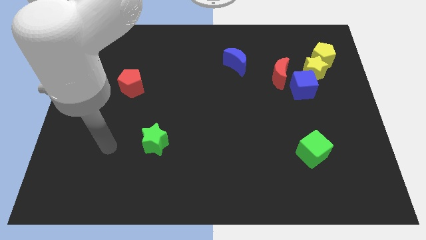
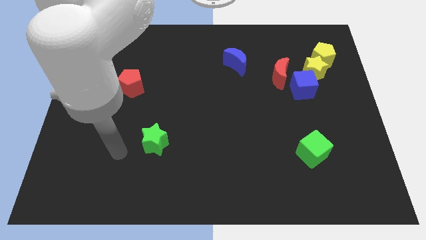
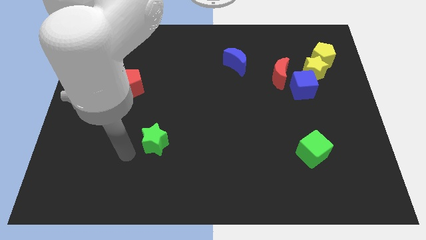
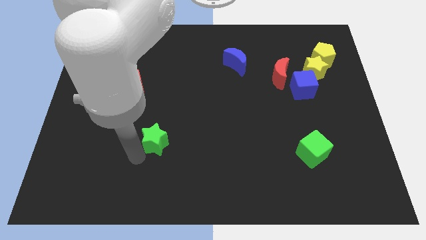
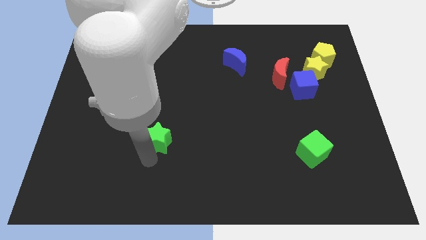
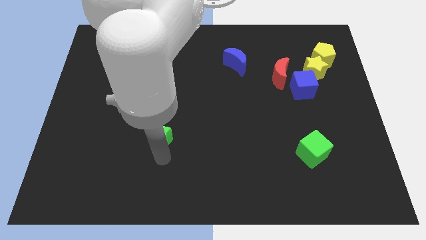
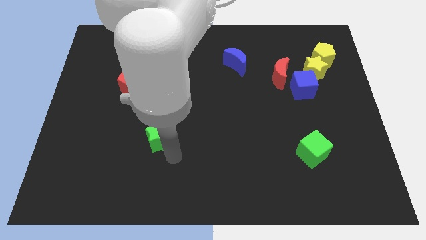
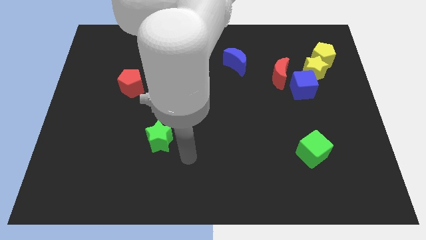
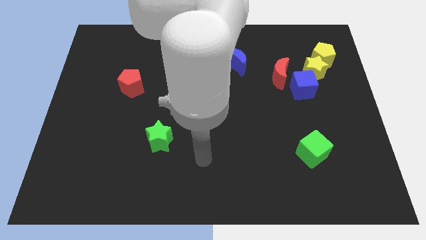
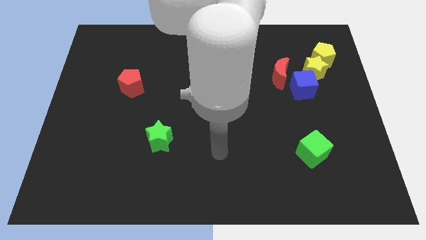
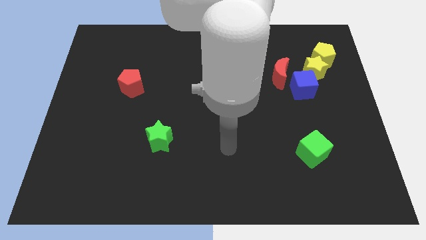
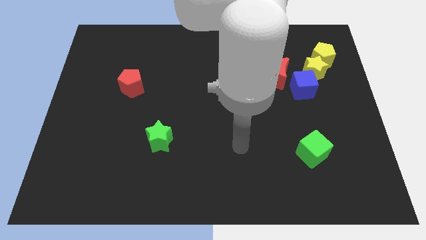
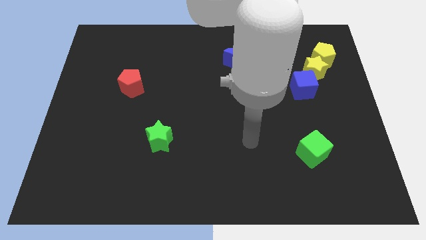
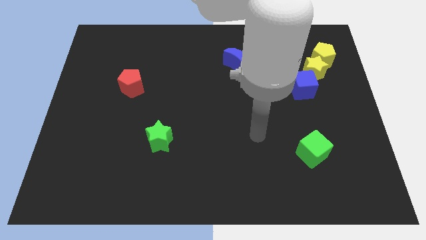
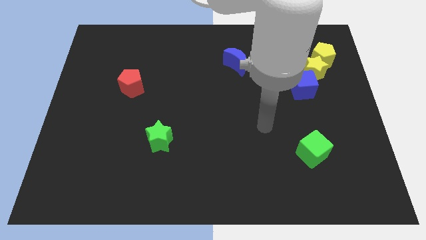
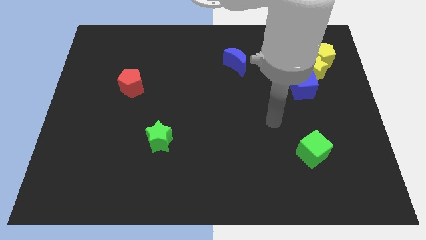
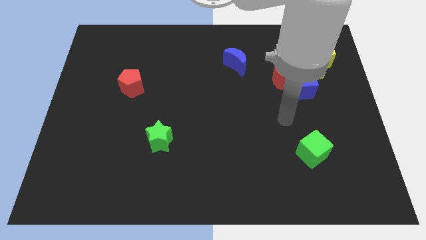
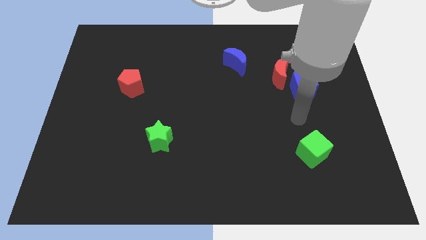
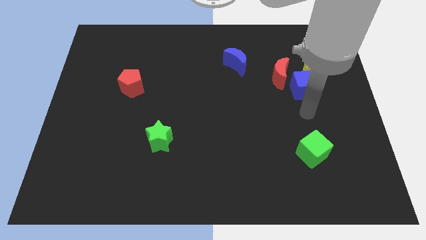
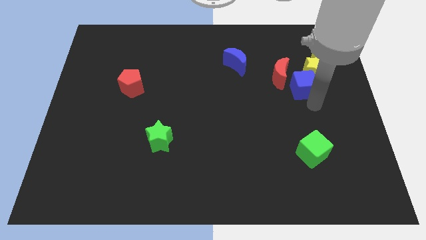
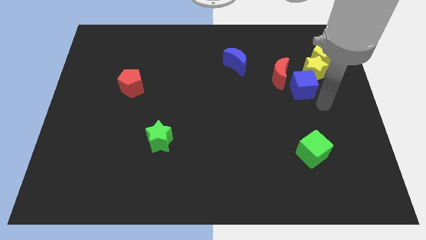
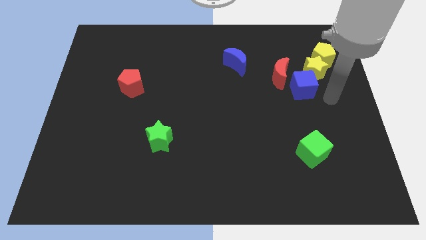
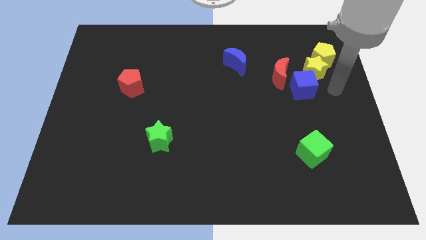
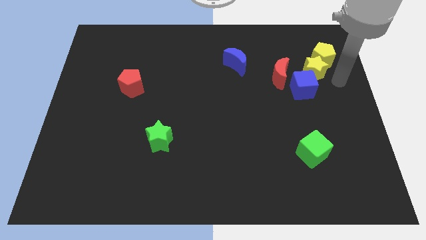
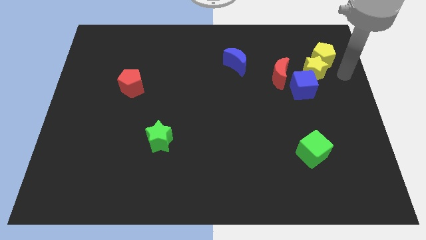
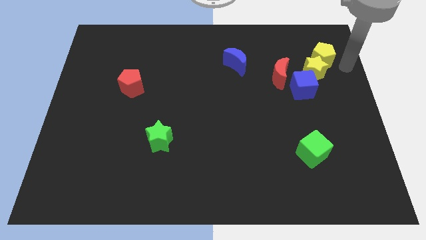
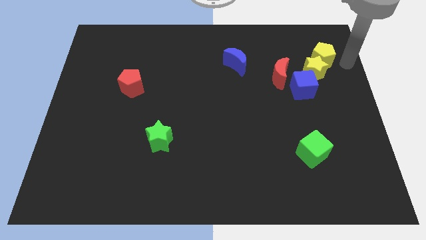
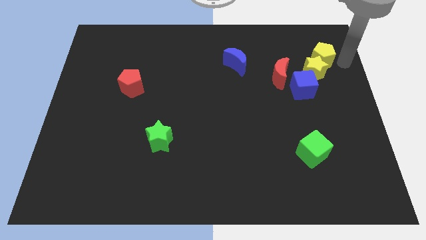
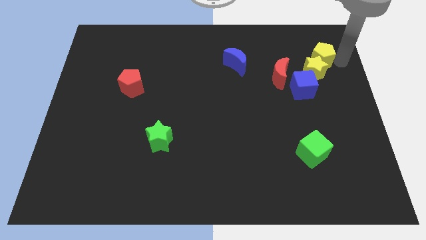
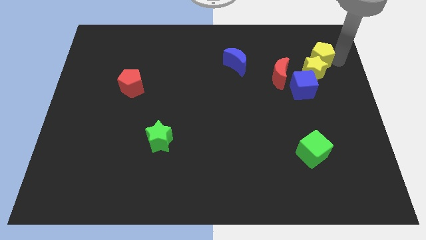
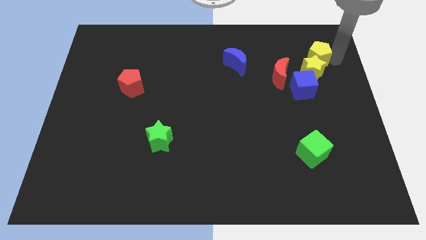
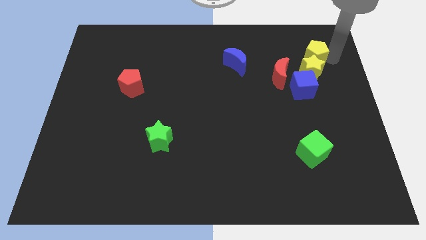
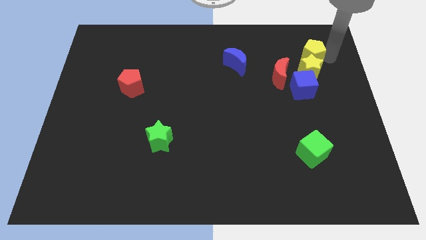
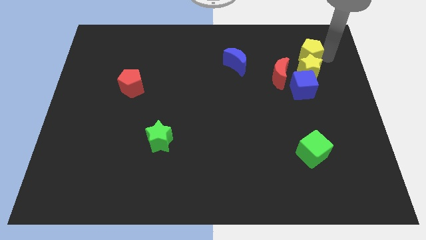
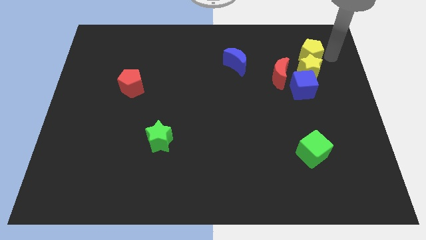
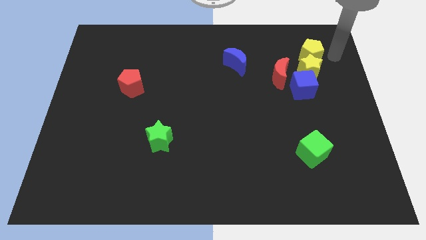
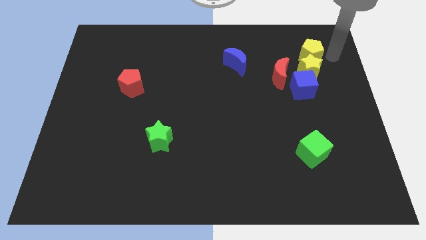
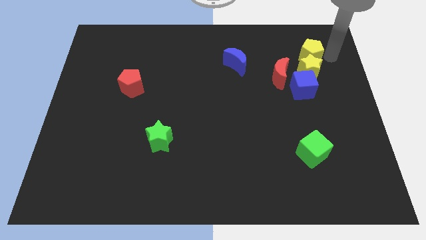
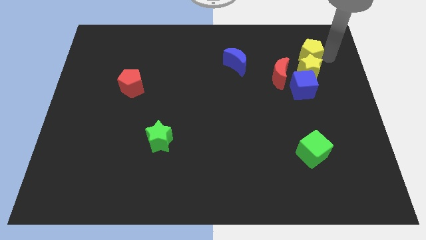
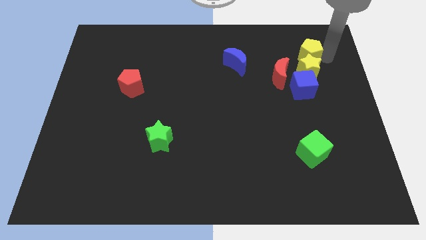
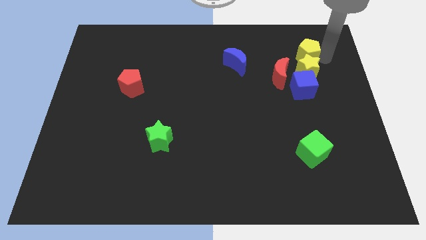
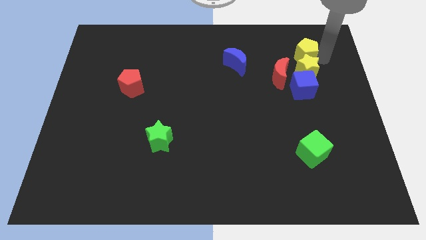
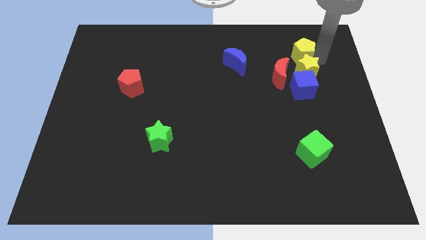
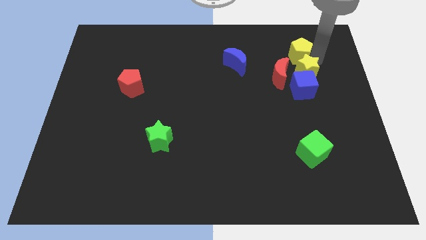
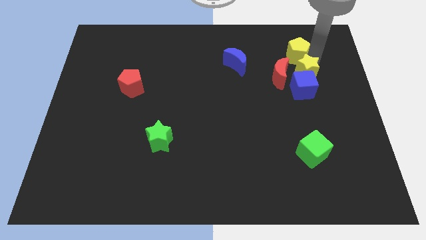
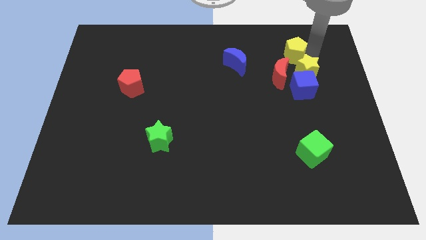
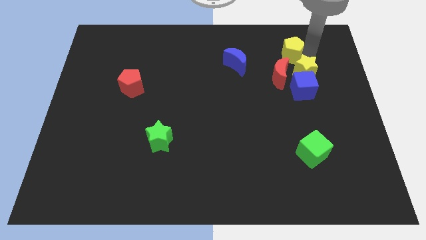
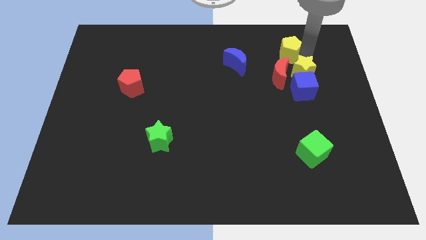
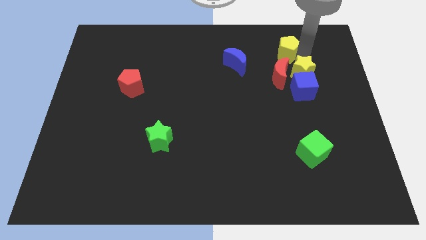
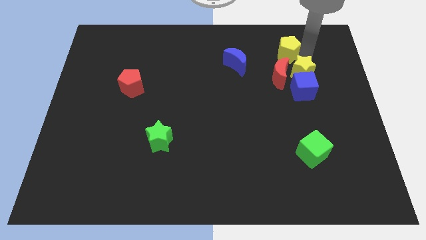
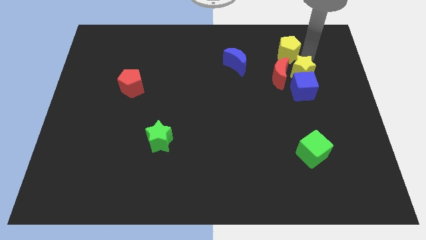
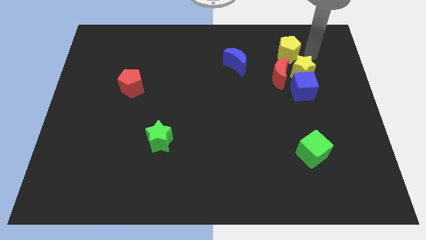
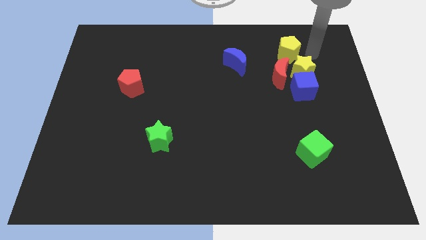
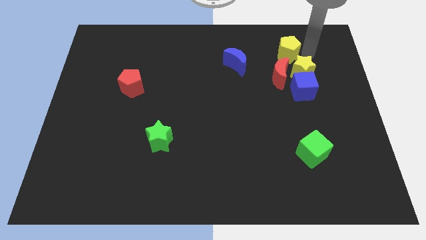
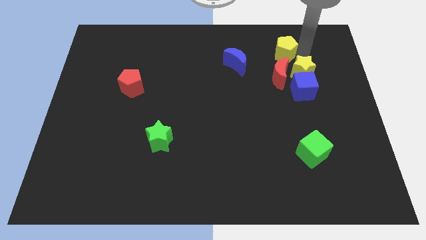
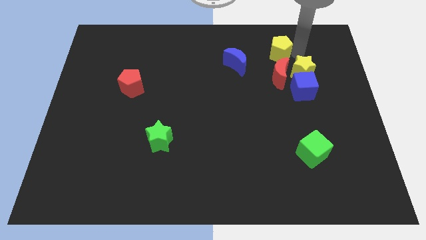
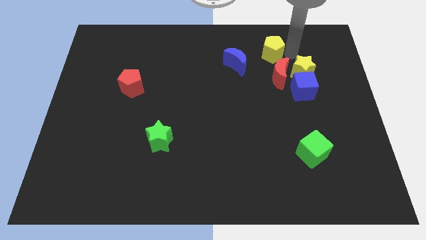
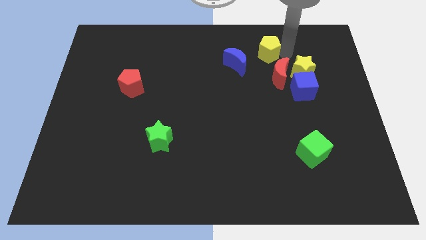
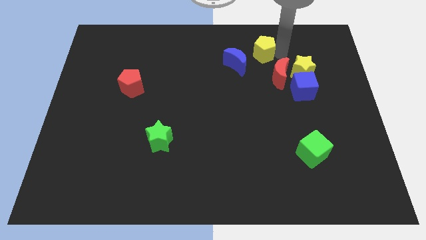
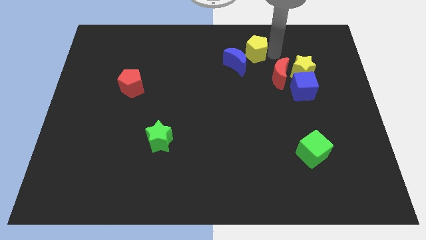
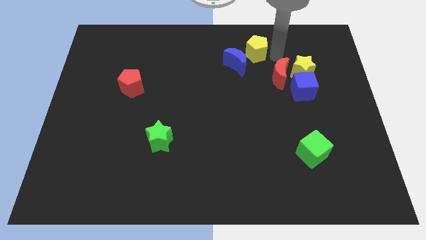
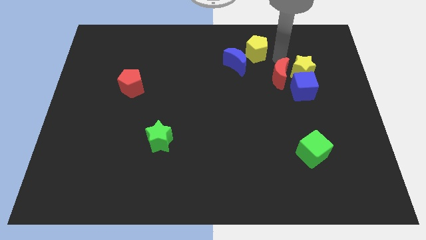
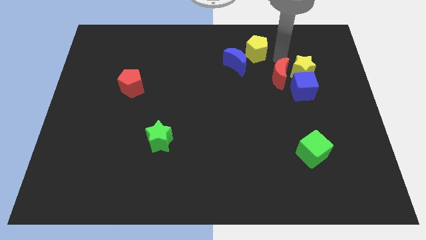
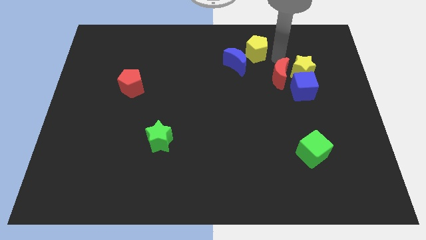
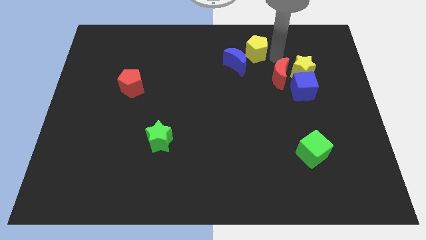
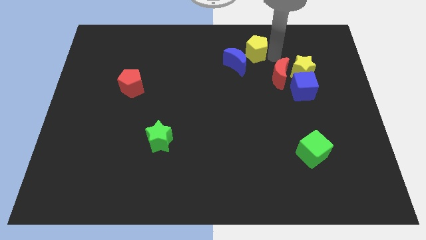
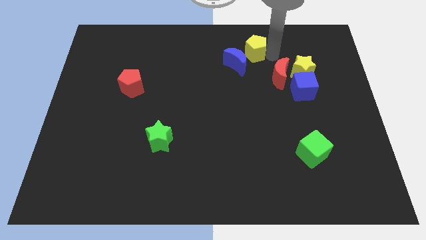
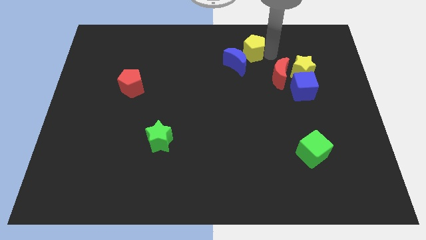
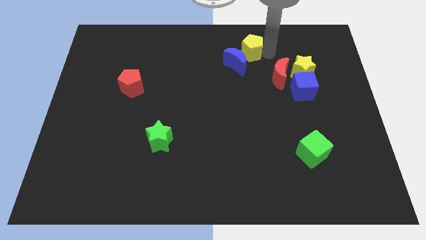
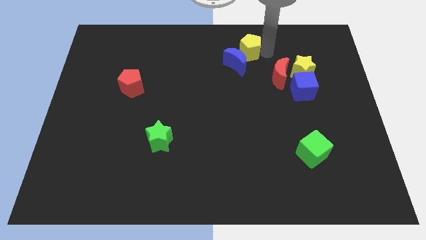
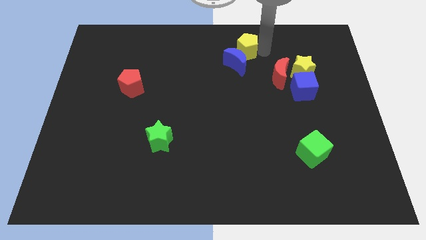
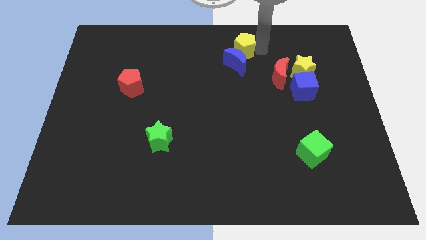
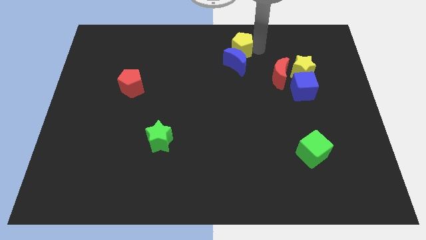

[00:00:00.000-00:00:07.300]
push the yellow pentagon to the left

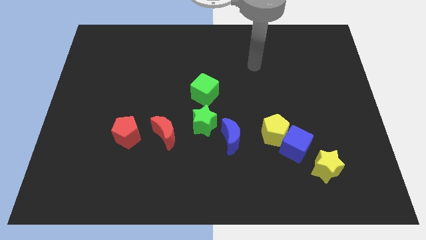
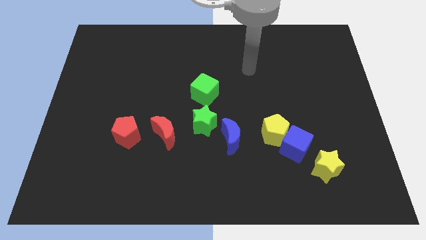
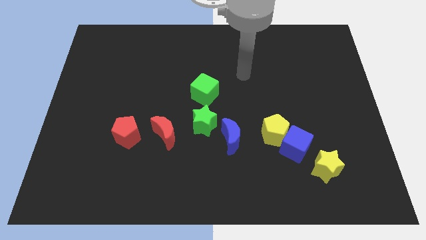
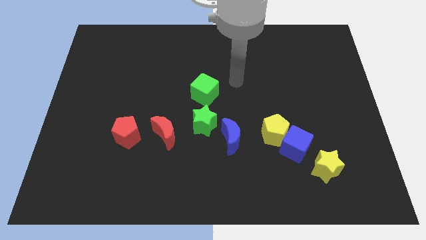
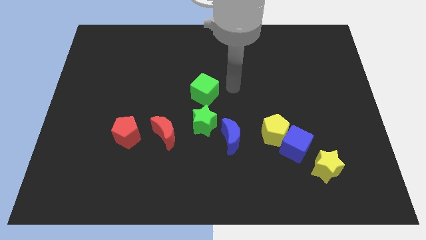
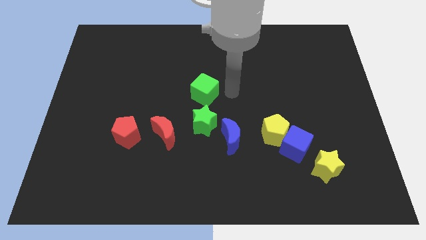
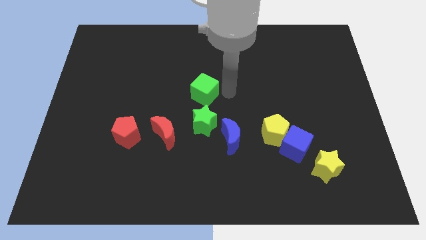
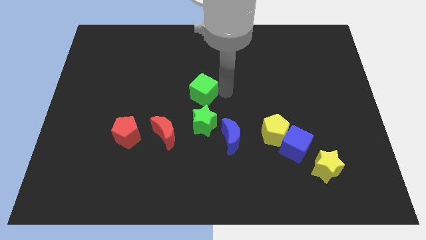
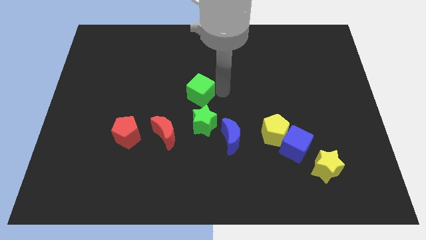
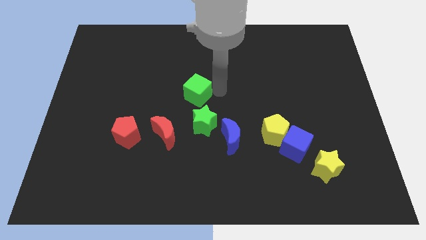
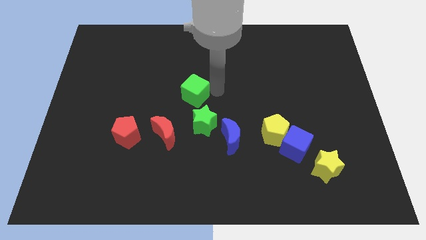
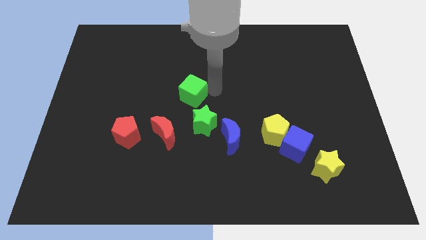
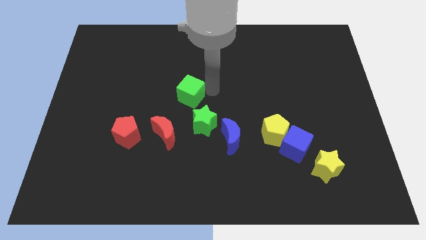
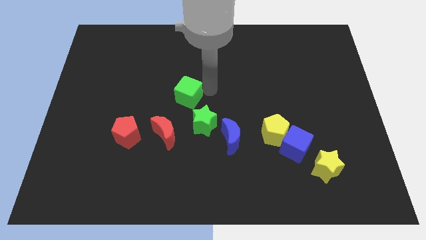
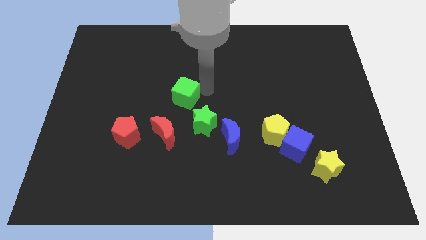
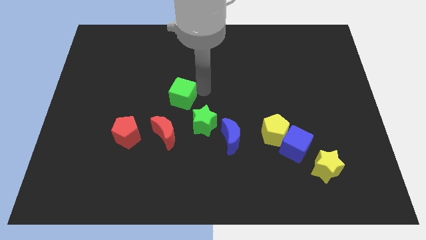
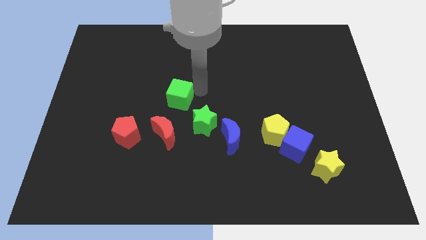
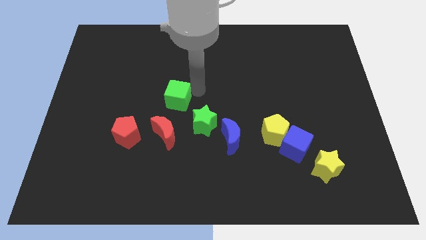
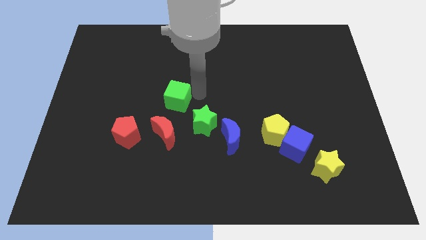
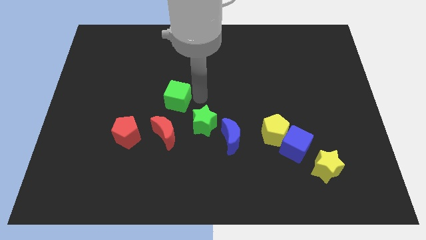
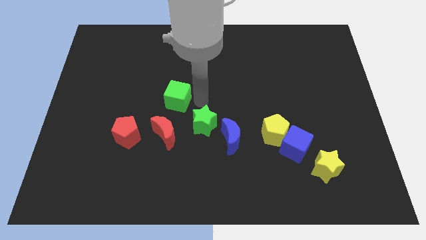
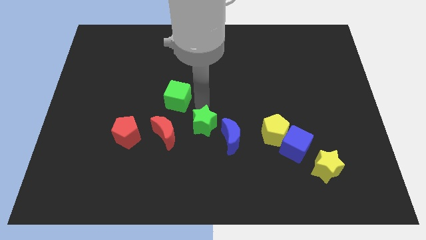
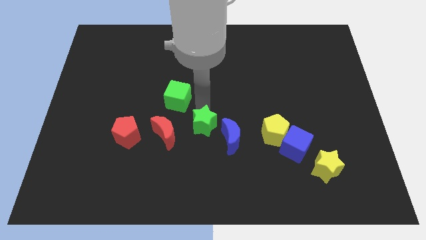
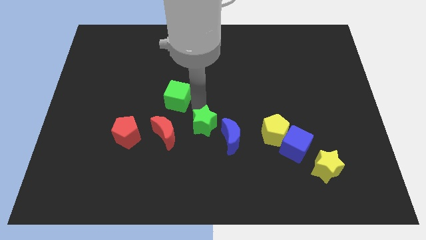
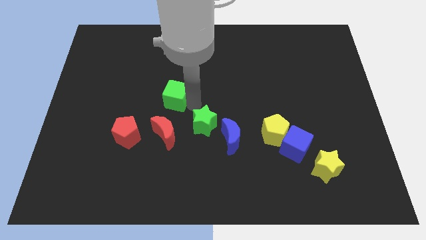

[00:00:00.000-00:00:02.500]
move the green cube to the left a little
